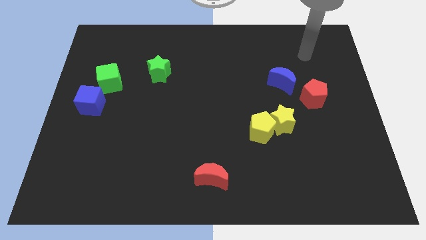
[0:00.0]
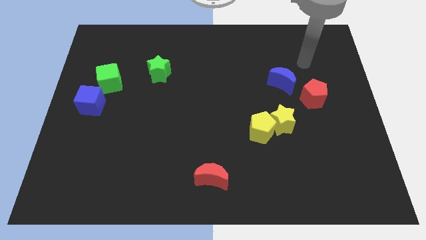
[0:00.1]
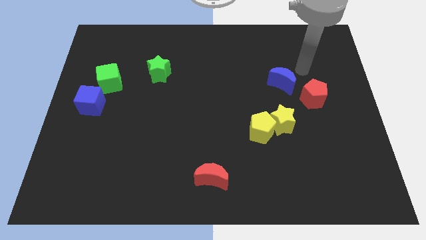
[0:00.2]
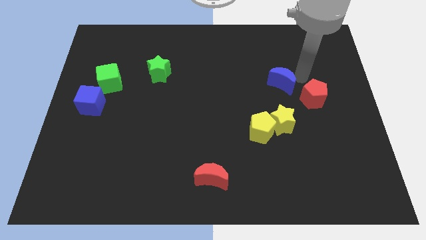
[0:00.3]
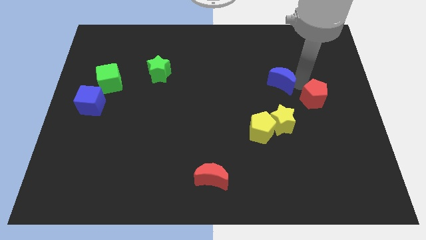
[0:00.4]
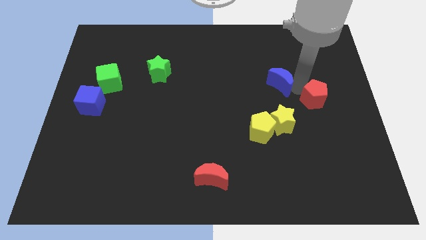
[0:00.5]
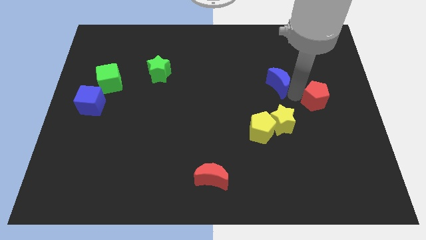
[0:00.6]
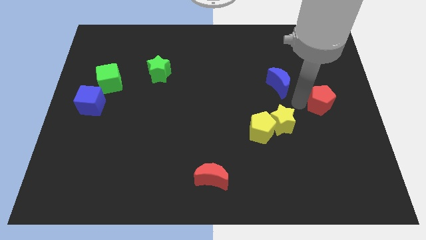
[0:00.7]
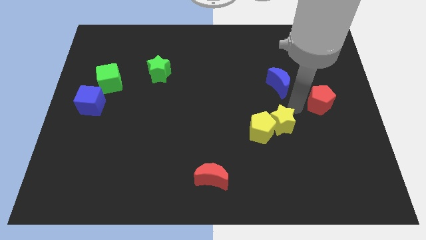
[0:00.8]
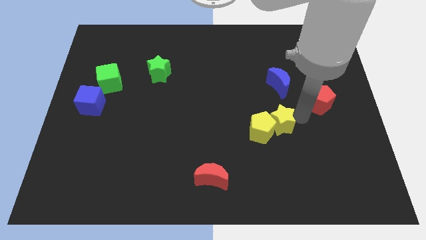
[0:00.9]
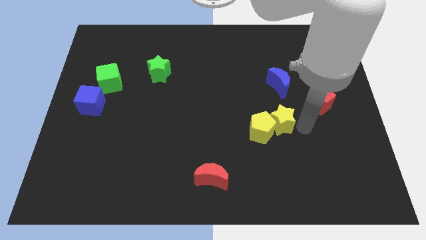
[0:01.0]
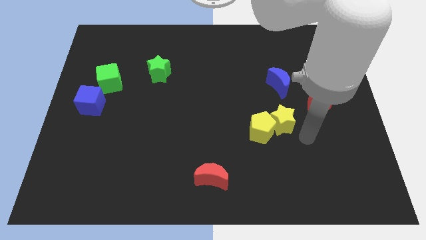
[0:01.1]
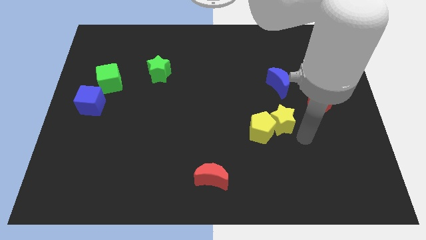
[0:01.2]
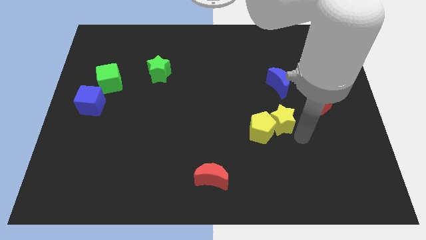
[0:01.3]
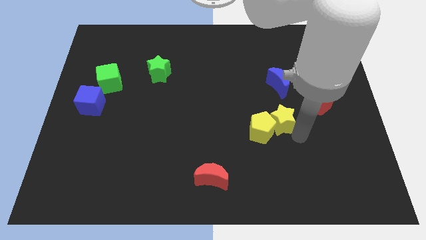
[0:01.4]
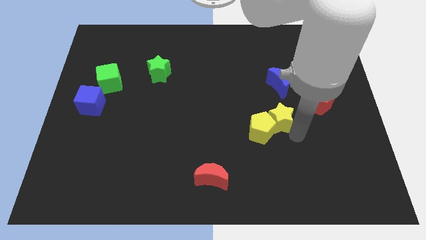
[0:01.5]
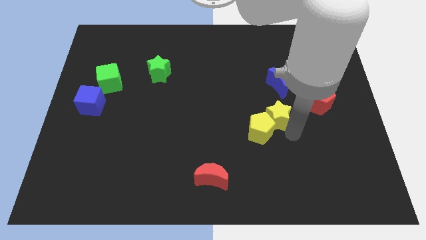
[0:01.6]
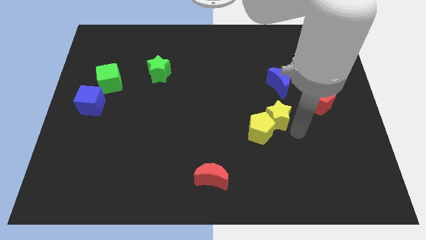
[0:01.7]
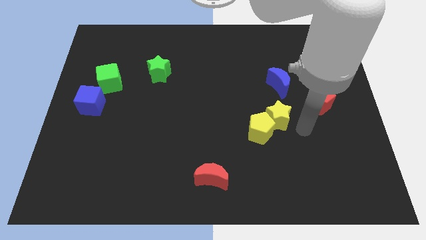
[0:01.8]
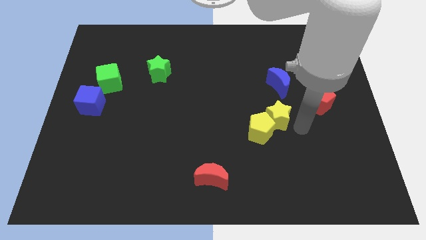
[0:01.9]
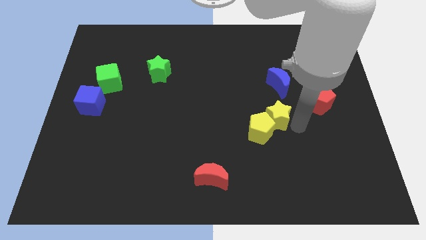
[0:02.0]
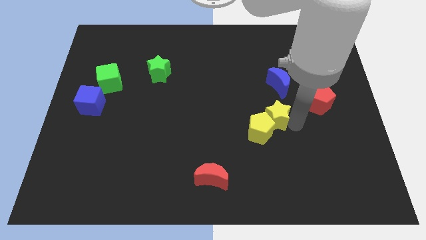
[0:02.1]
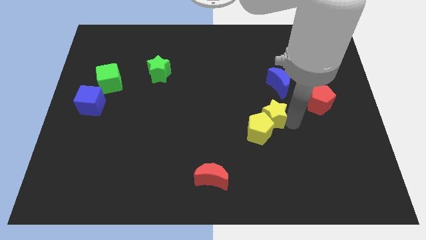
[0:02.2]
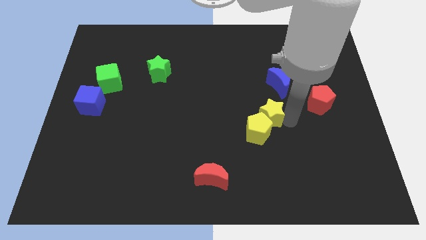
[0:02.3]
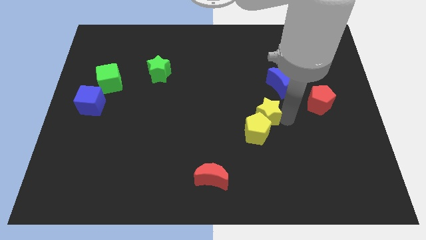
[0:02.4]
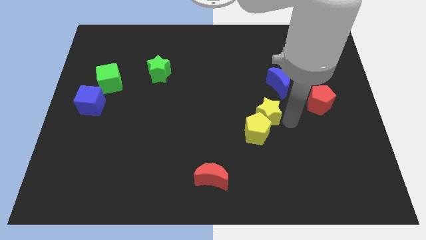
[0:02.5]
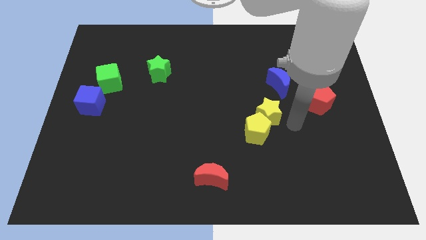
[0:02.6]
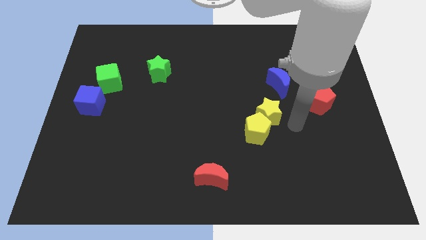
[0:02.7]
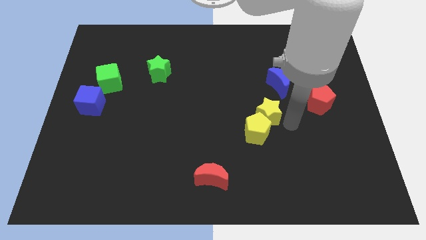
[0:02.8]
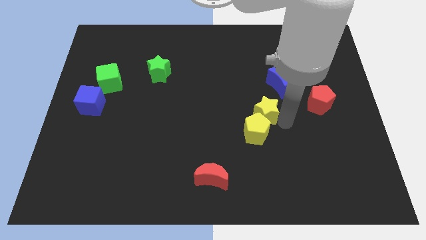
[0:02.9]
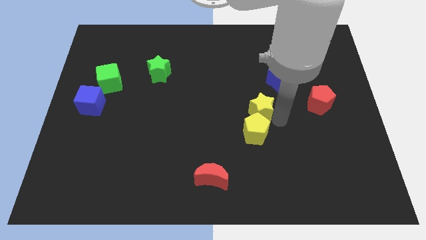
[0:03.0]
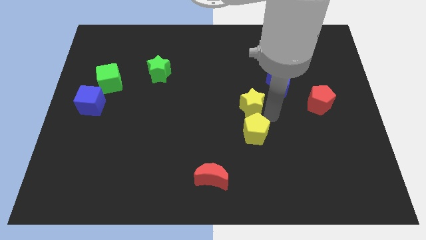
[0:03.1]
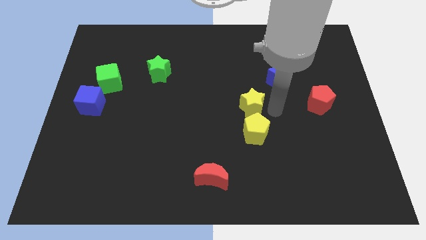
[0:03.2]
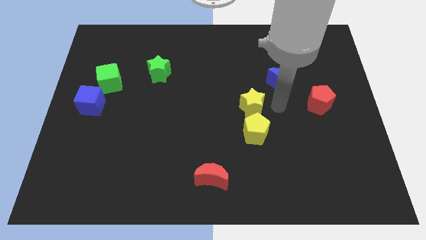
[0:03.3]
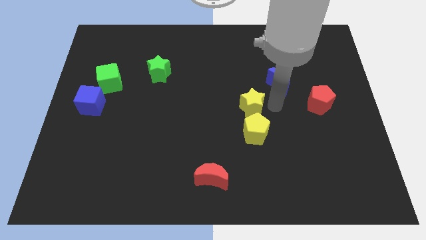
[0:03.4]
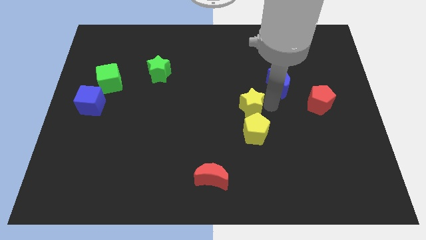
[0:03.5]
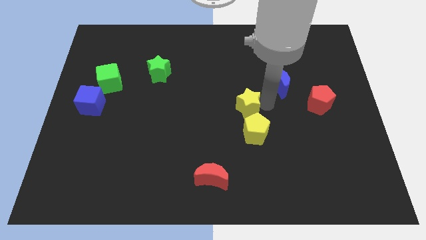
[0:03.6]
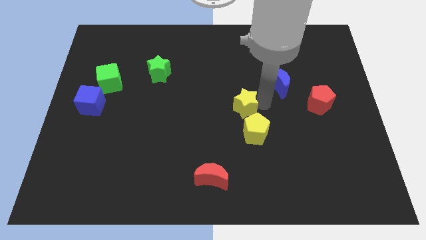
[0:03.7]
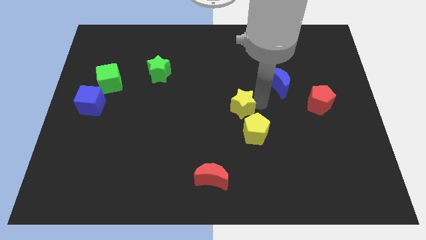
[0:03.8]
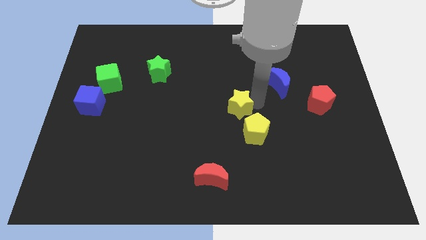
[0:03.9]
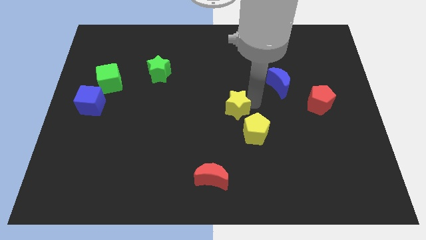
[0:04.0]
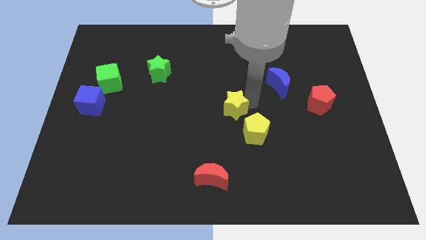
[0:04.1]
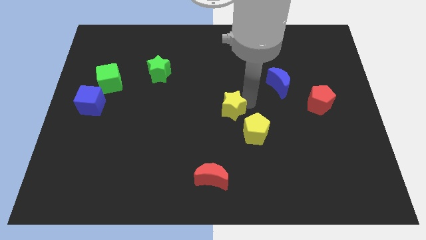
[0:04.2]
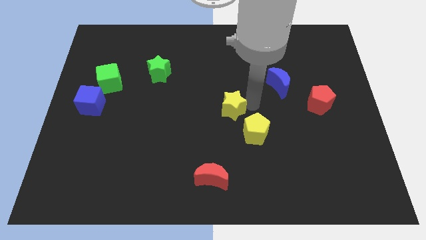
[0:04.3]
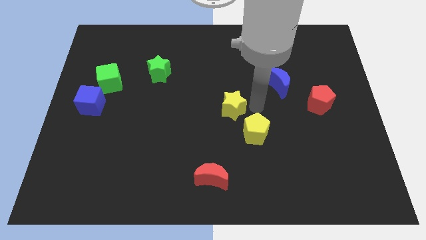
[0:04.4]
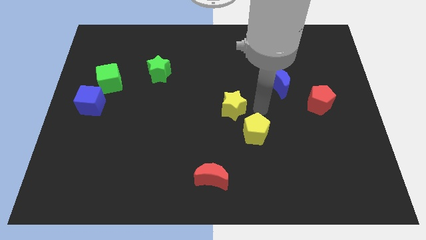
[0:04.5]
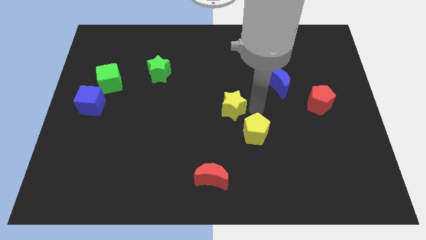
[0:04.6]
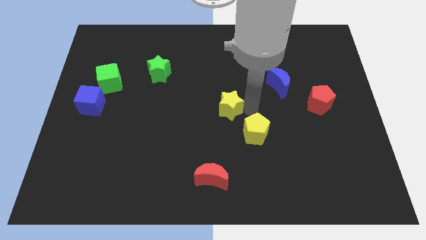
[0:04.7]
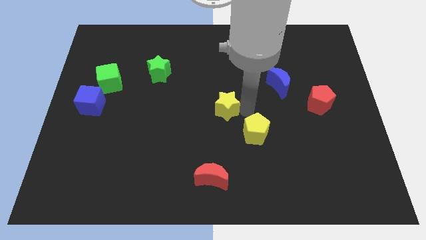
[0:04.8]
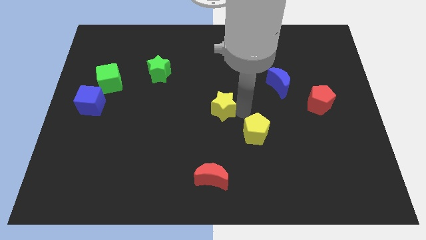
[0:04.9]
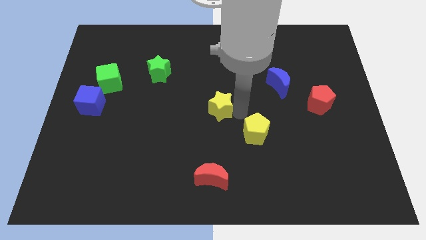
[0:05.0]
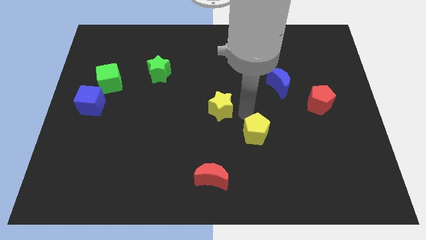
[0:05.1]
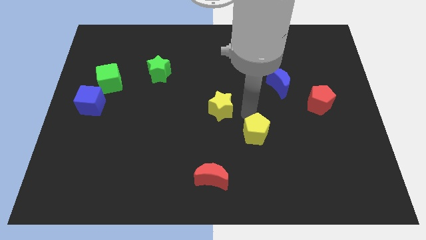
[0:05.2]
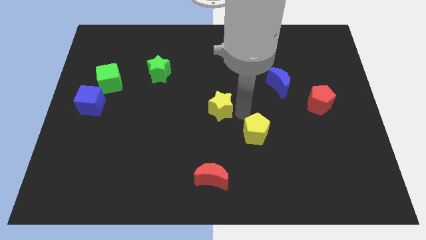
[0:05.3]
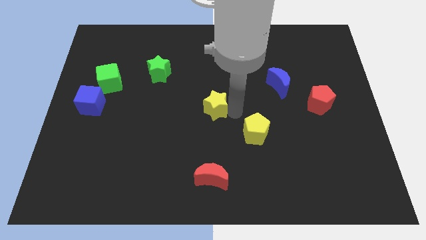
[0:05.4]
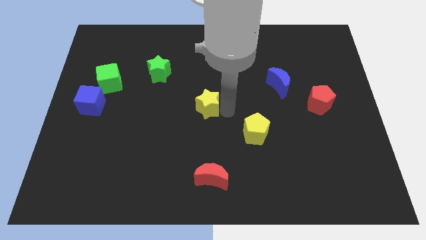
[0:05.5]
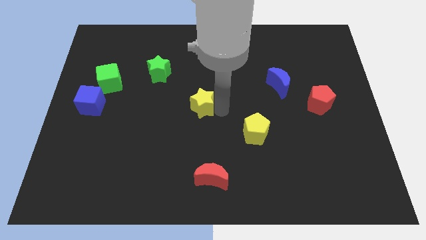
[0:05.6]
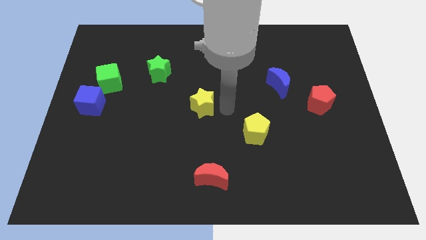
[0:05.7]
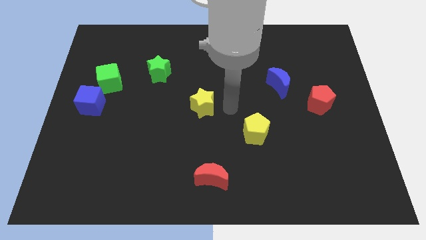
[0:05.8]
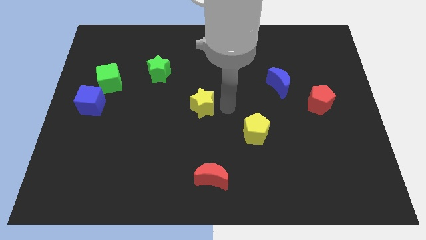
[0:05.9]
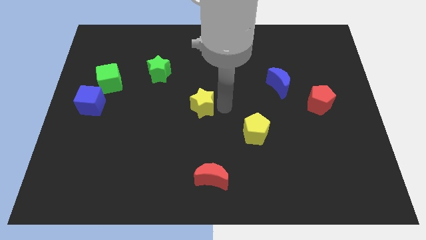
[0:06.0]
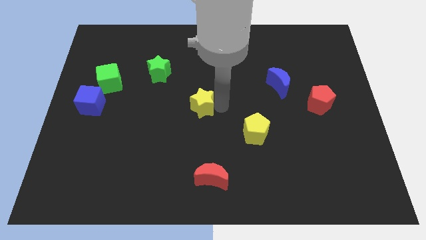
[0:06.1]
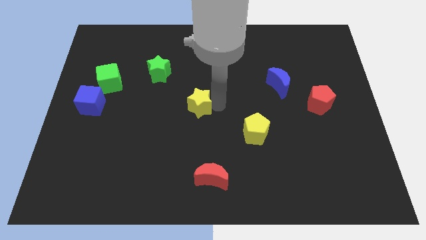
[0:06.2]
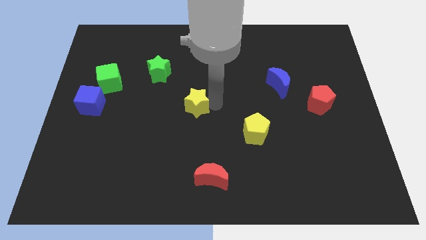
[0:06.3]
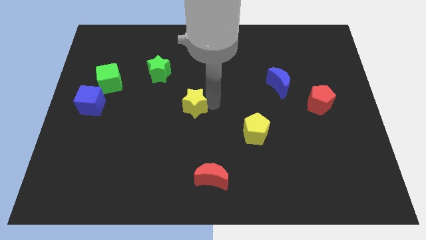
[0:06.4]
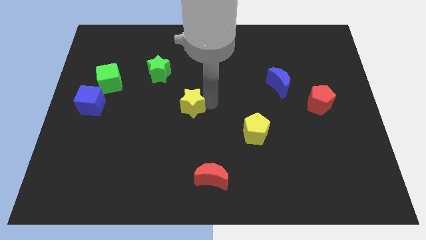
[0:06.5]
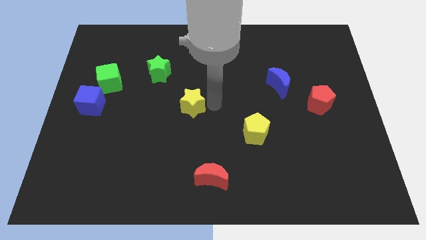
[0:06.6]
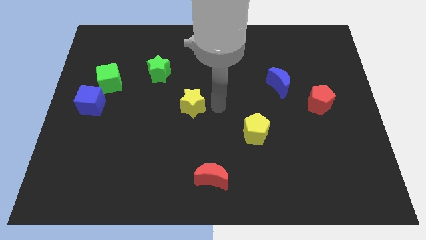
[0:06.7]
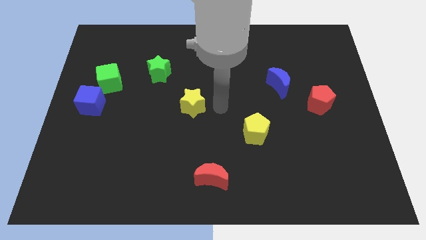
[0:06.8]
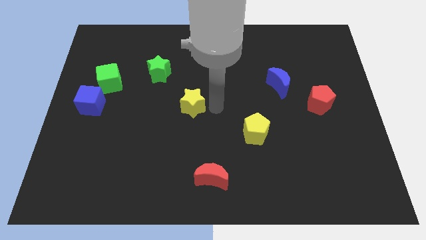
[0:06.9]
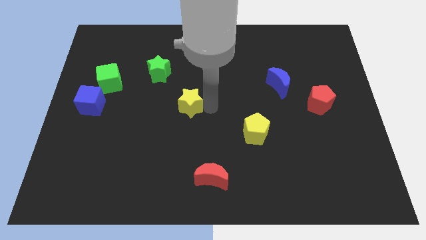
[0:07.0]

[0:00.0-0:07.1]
push the yellow star left

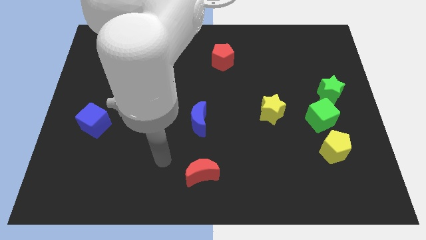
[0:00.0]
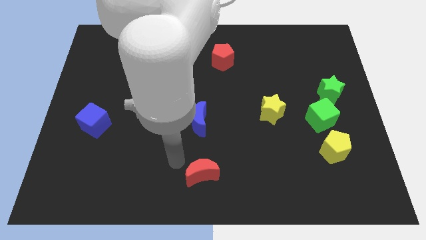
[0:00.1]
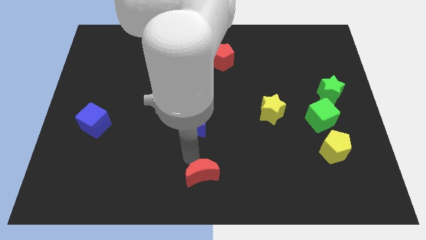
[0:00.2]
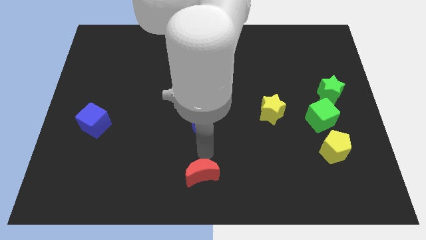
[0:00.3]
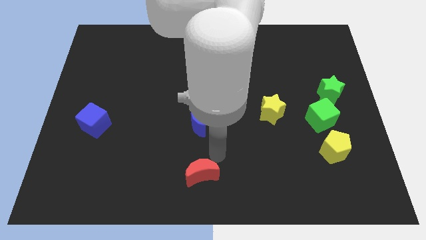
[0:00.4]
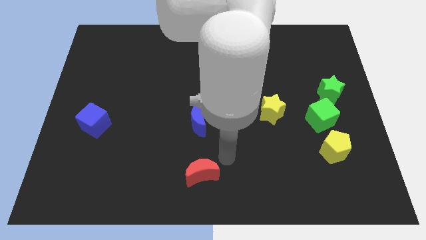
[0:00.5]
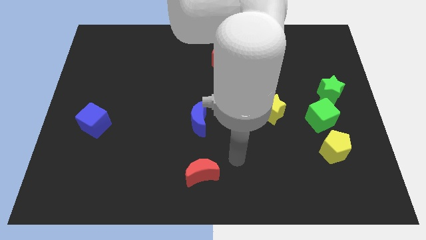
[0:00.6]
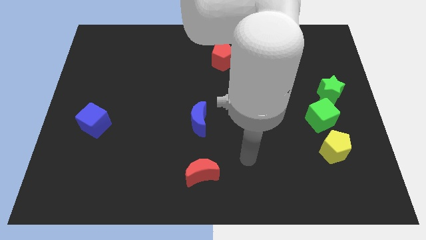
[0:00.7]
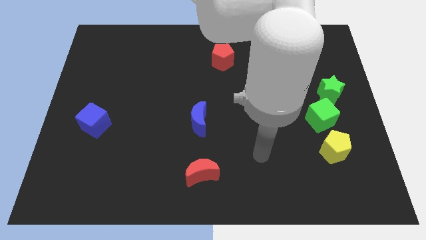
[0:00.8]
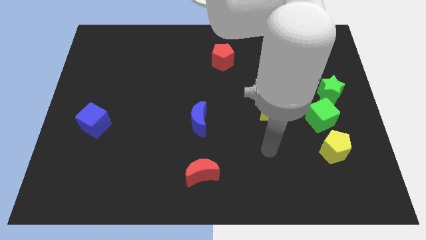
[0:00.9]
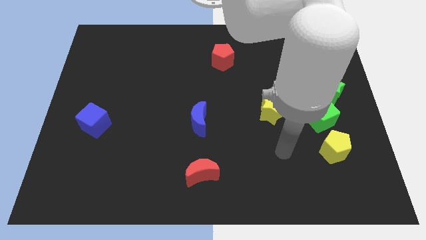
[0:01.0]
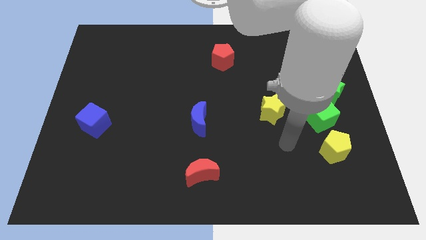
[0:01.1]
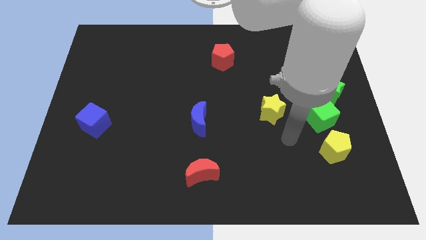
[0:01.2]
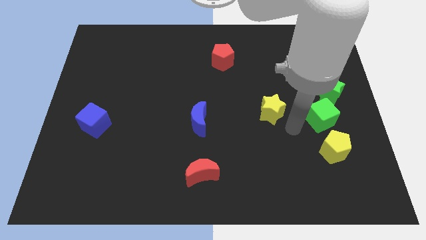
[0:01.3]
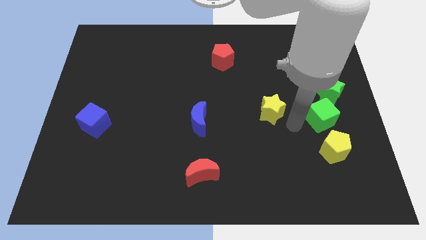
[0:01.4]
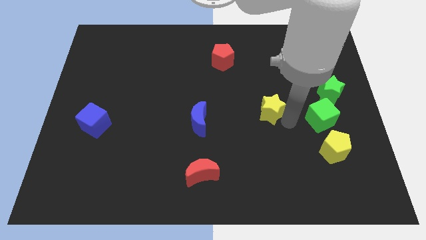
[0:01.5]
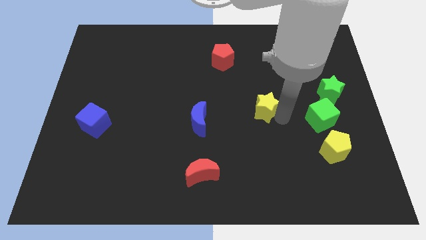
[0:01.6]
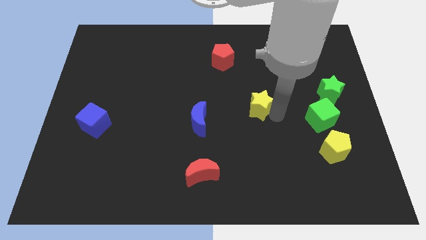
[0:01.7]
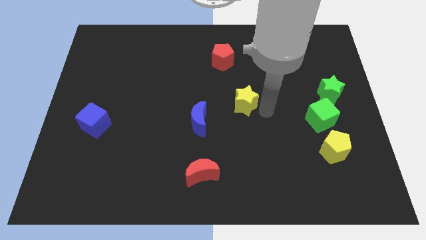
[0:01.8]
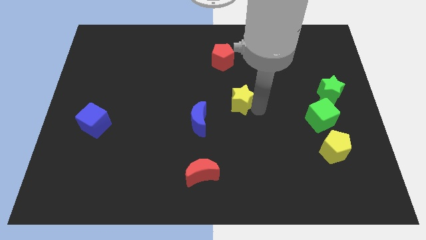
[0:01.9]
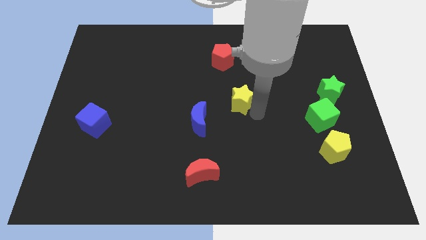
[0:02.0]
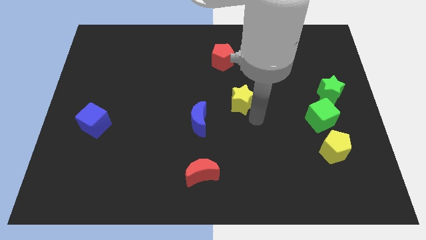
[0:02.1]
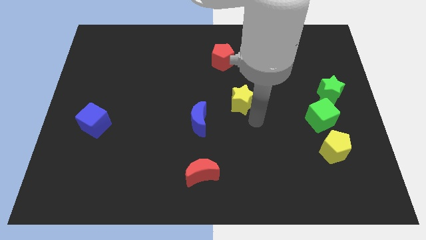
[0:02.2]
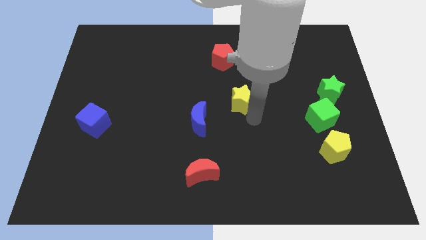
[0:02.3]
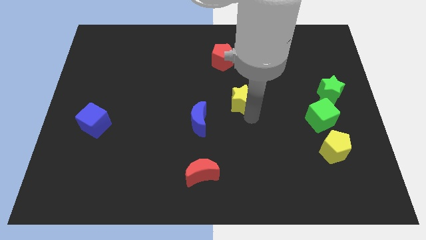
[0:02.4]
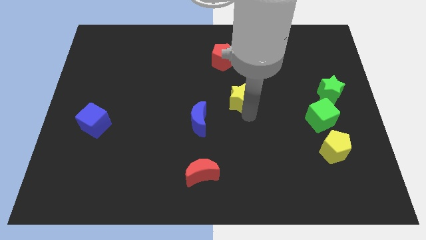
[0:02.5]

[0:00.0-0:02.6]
push the yellow star a little upwards and to the left diagonally
